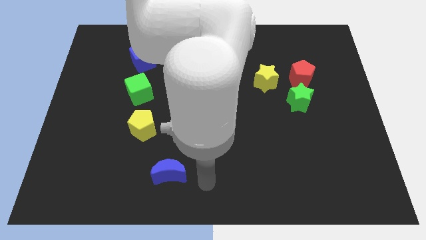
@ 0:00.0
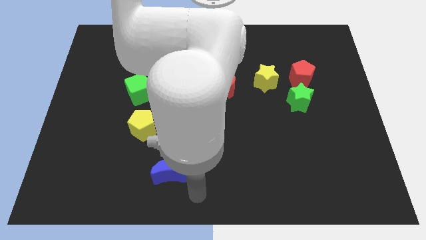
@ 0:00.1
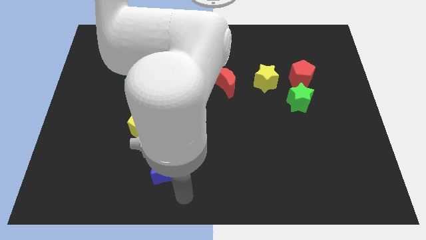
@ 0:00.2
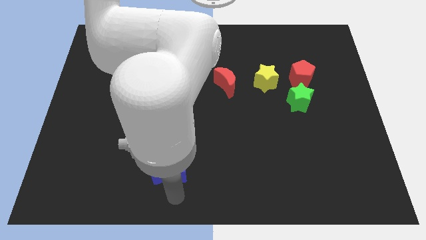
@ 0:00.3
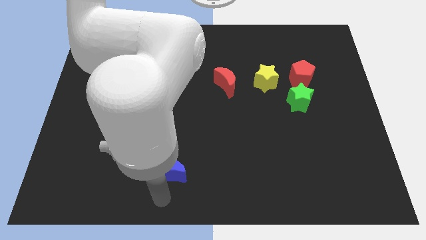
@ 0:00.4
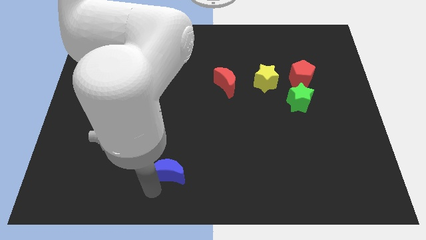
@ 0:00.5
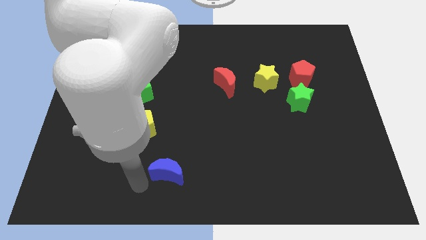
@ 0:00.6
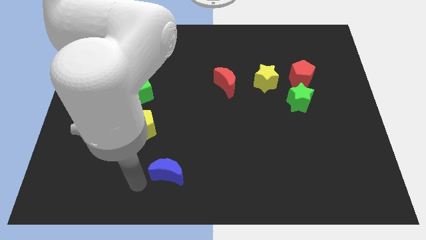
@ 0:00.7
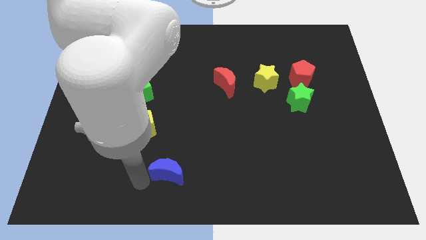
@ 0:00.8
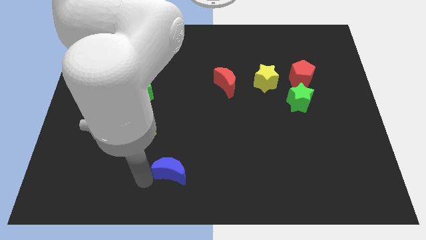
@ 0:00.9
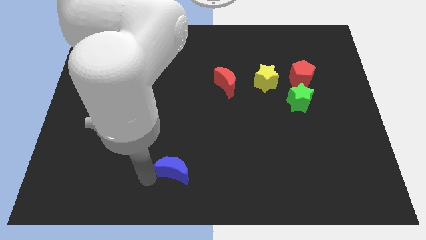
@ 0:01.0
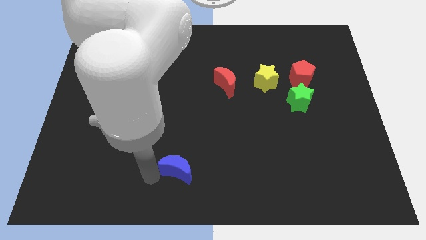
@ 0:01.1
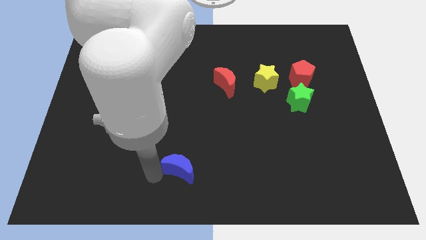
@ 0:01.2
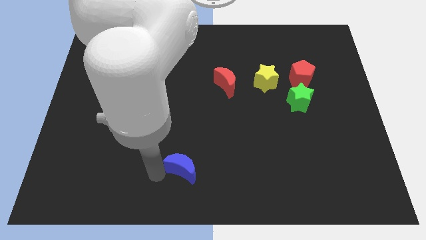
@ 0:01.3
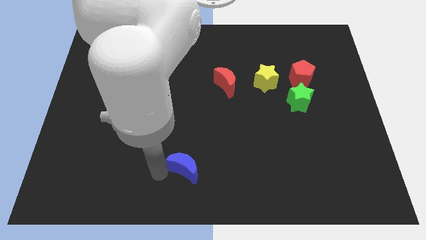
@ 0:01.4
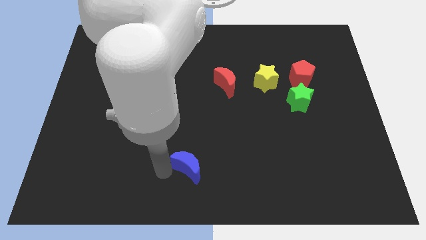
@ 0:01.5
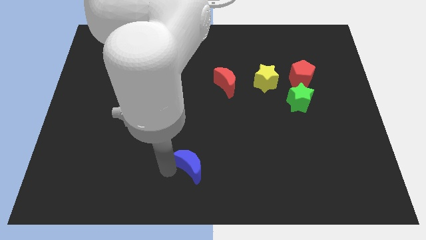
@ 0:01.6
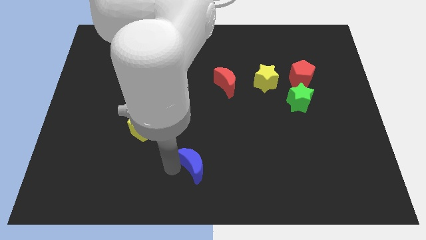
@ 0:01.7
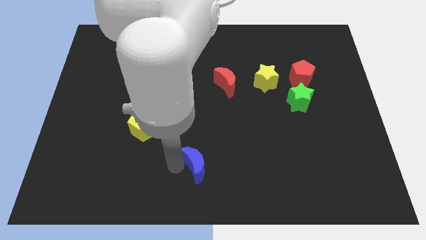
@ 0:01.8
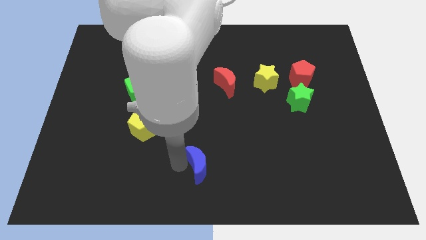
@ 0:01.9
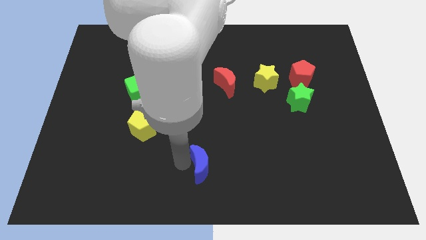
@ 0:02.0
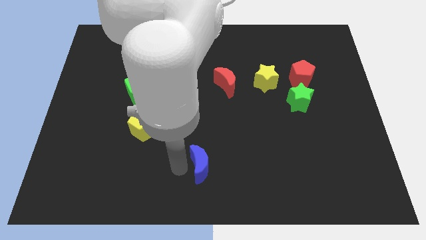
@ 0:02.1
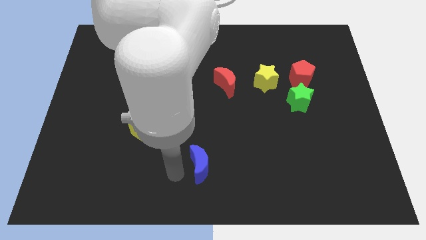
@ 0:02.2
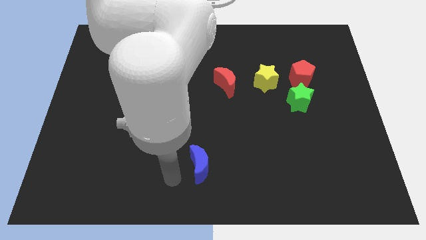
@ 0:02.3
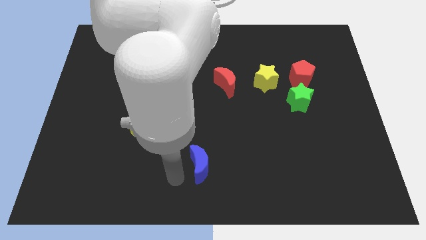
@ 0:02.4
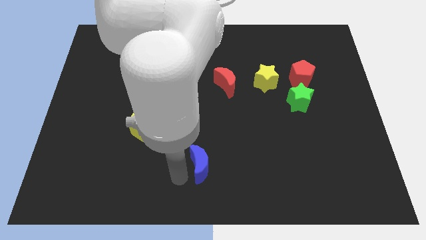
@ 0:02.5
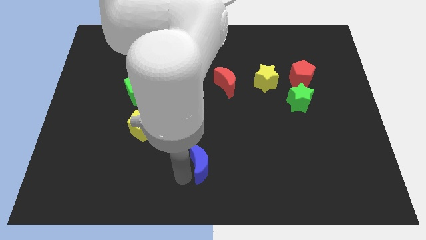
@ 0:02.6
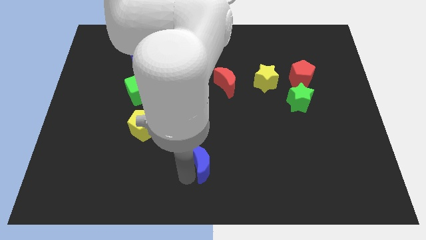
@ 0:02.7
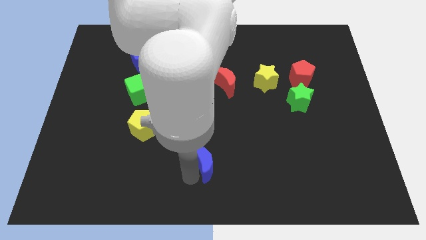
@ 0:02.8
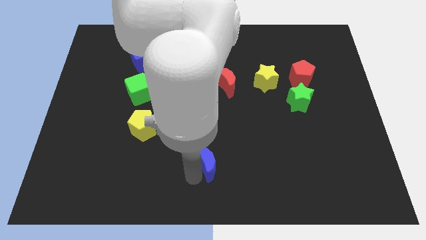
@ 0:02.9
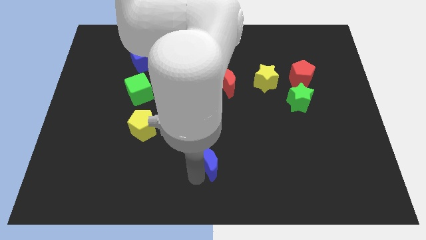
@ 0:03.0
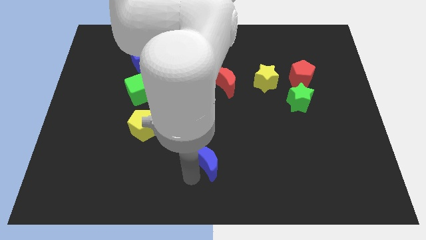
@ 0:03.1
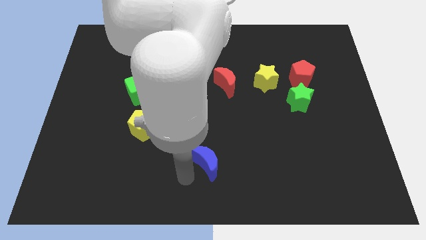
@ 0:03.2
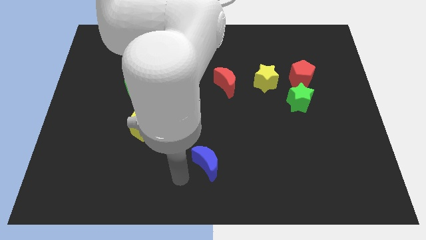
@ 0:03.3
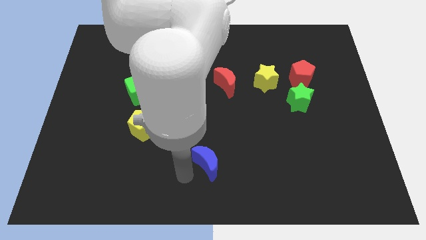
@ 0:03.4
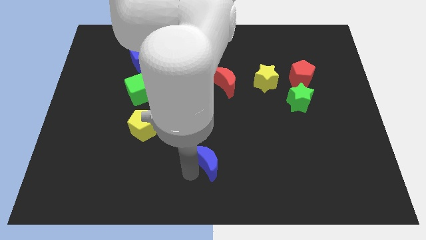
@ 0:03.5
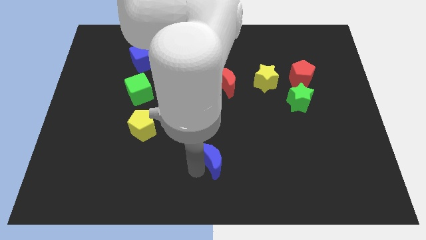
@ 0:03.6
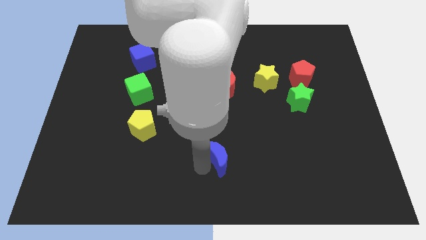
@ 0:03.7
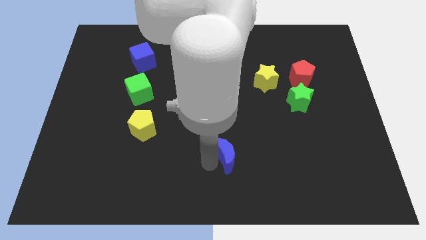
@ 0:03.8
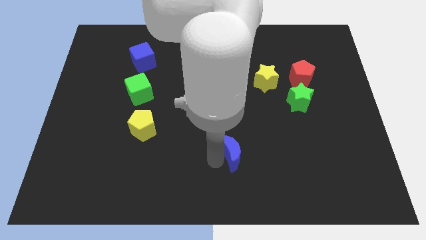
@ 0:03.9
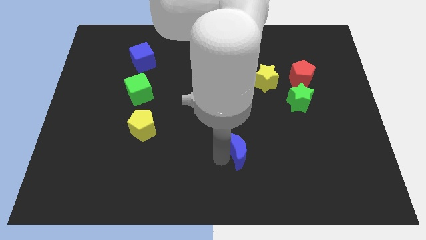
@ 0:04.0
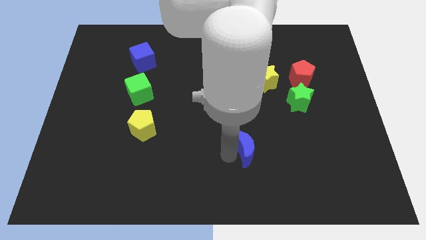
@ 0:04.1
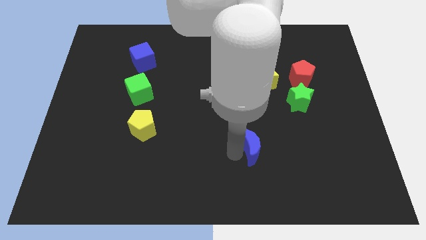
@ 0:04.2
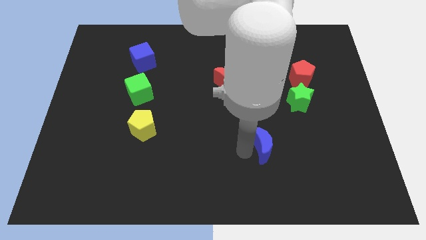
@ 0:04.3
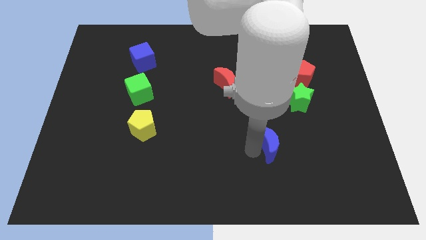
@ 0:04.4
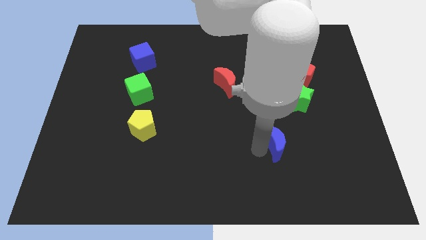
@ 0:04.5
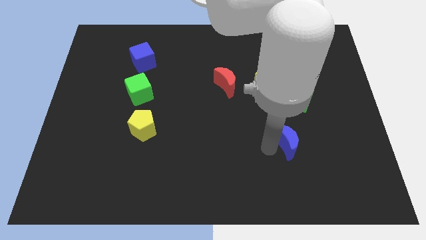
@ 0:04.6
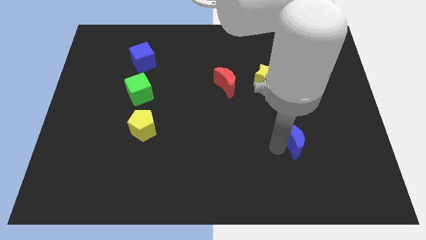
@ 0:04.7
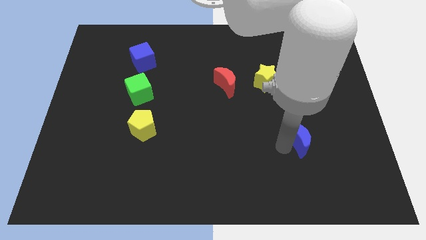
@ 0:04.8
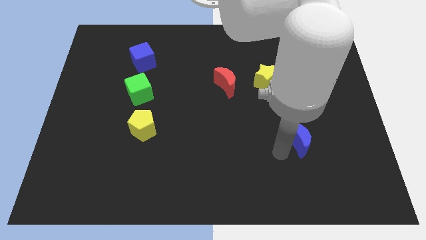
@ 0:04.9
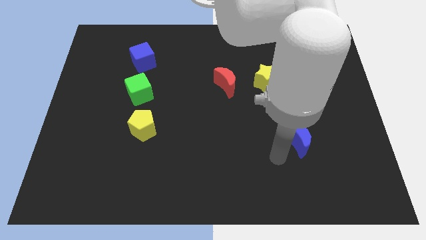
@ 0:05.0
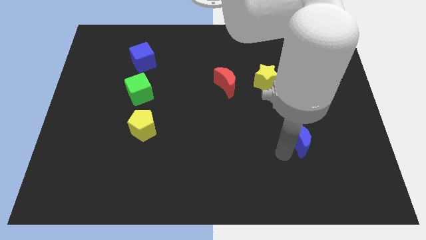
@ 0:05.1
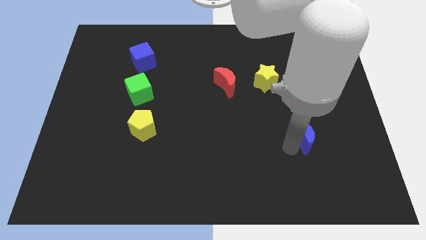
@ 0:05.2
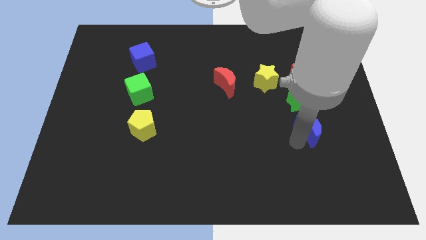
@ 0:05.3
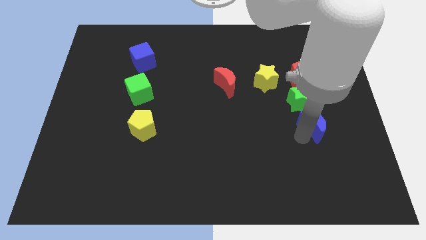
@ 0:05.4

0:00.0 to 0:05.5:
slide the blue moon diagonally down and to the right of the green star

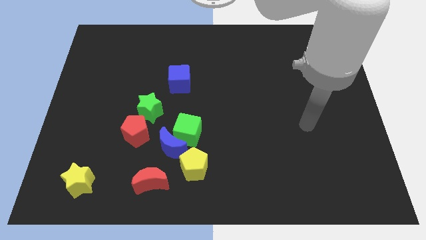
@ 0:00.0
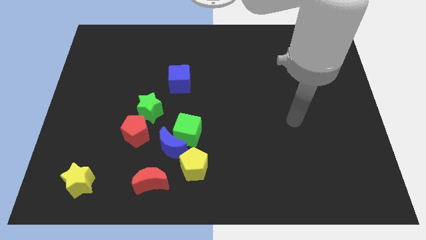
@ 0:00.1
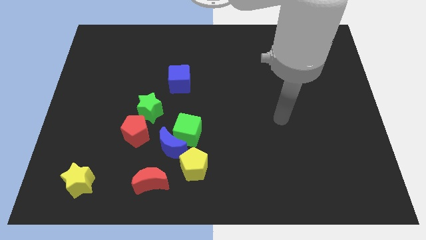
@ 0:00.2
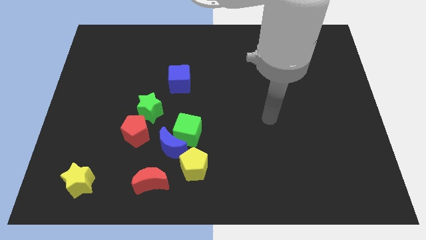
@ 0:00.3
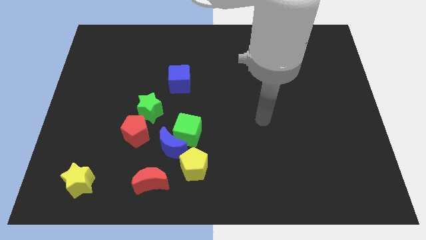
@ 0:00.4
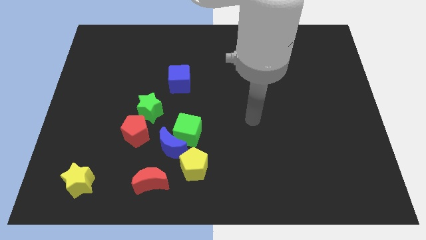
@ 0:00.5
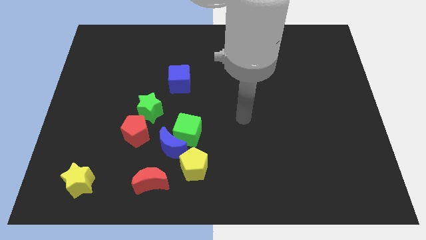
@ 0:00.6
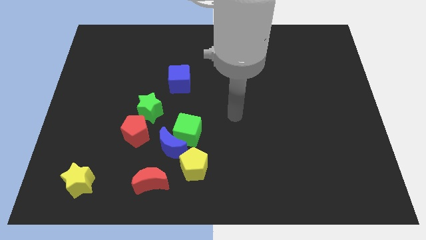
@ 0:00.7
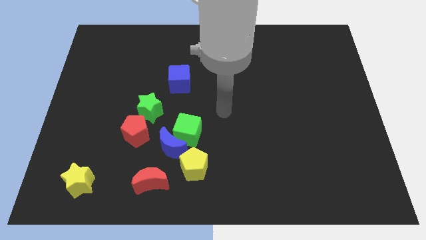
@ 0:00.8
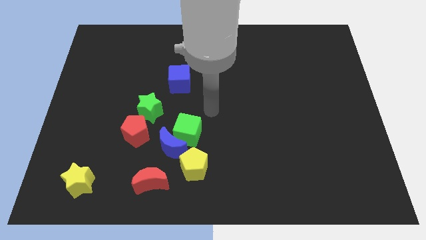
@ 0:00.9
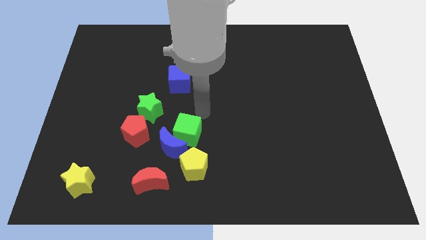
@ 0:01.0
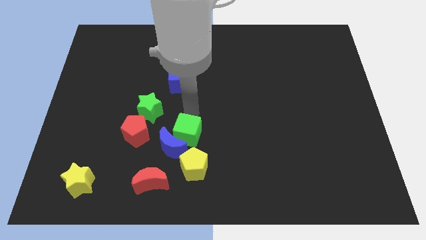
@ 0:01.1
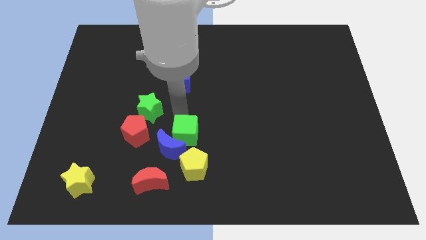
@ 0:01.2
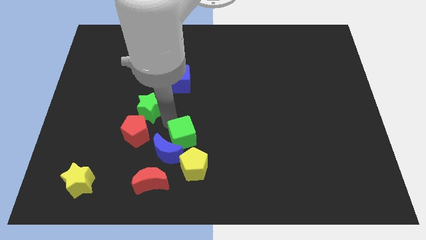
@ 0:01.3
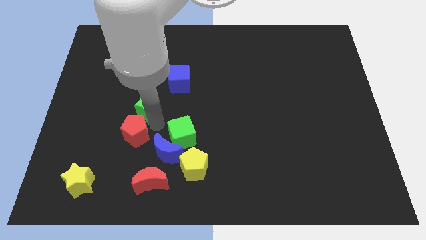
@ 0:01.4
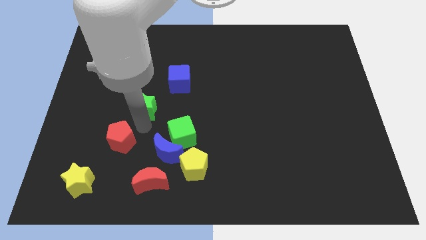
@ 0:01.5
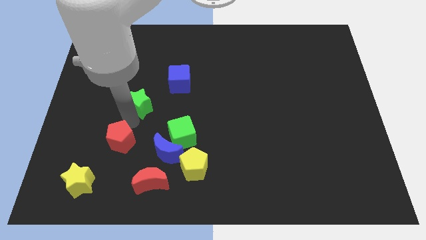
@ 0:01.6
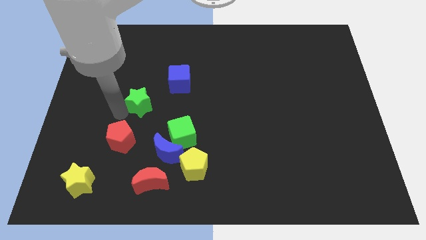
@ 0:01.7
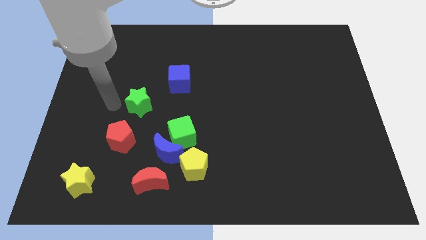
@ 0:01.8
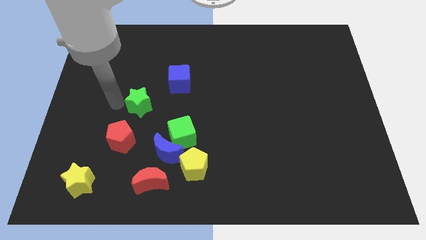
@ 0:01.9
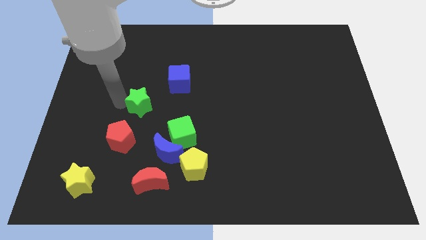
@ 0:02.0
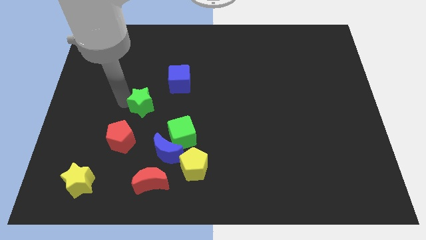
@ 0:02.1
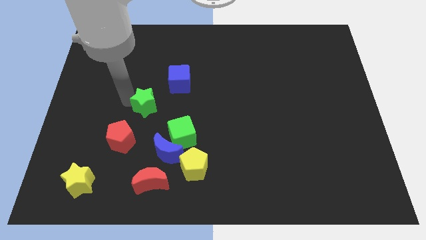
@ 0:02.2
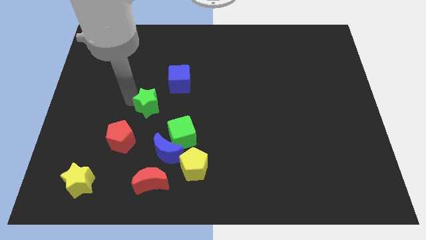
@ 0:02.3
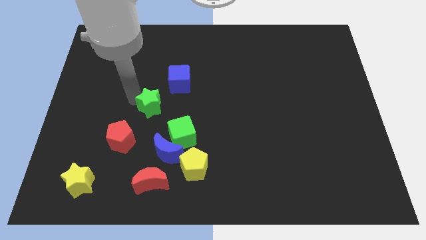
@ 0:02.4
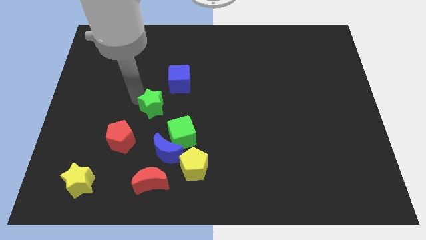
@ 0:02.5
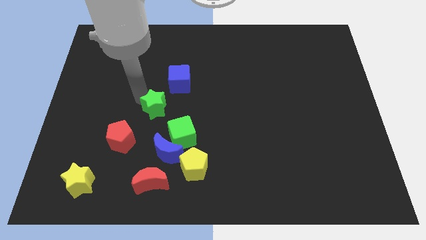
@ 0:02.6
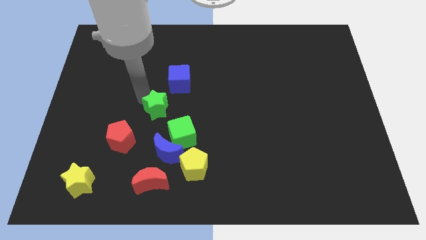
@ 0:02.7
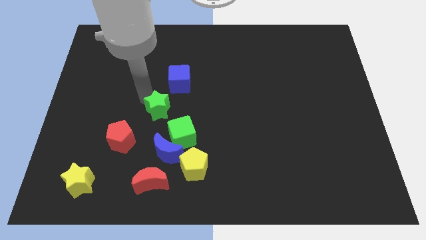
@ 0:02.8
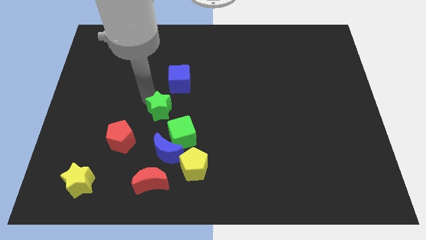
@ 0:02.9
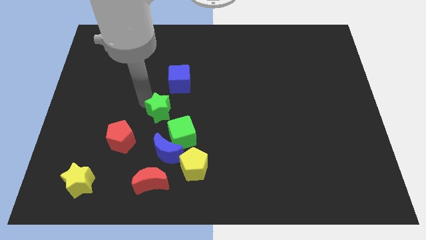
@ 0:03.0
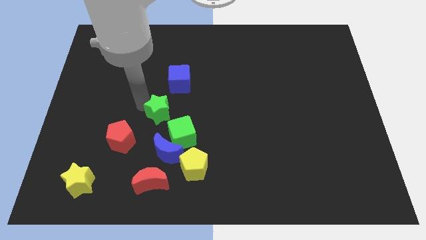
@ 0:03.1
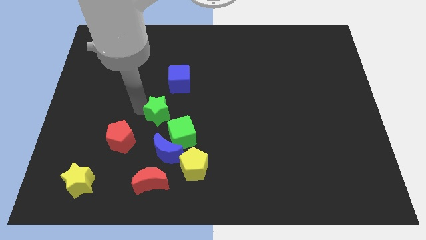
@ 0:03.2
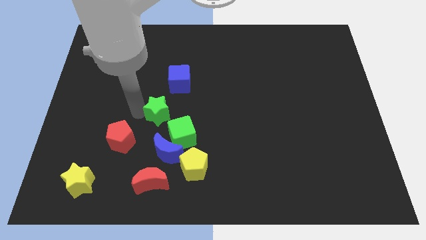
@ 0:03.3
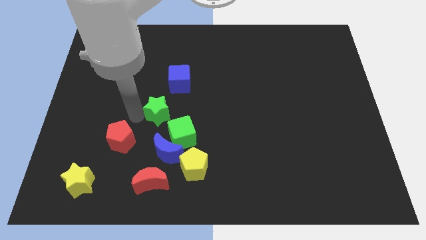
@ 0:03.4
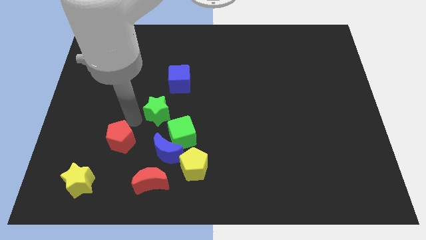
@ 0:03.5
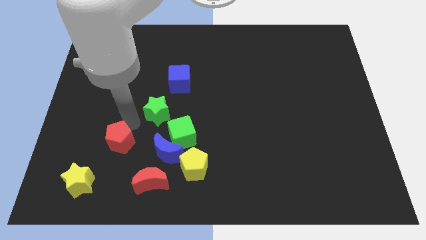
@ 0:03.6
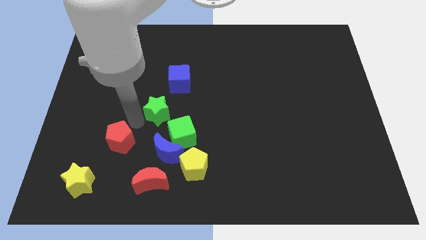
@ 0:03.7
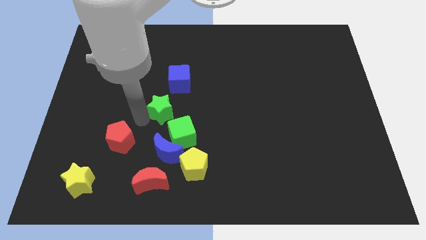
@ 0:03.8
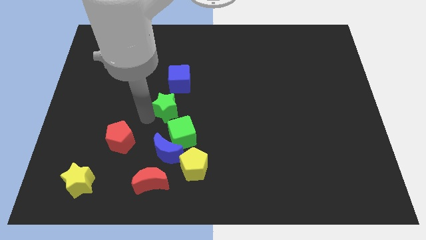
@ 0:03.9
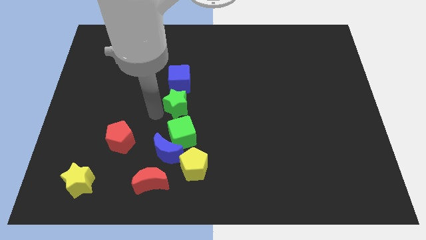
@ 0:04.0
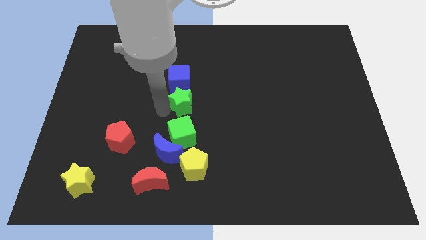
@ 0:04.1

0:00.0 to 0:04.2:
move the green star to the bottom right of the blue cube
